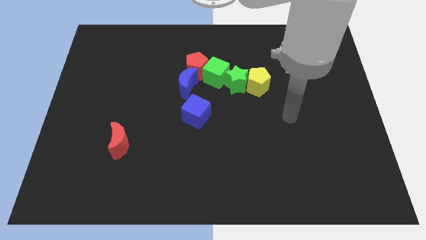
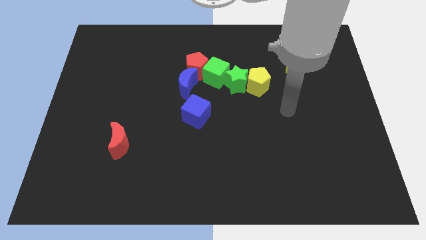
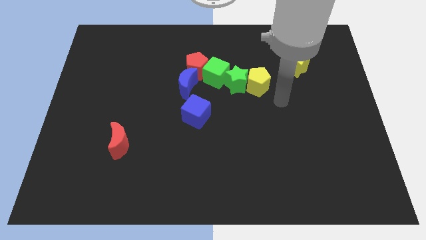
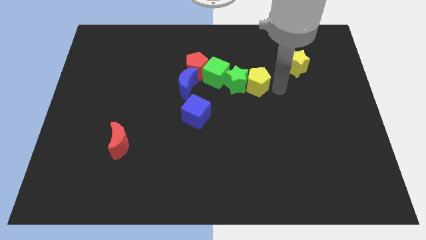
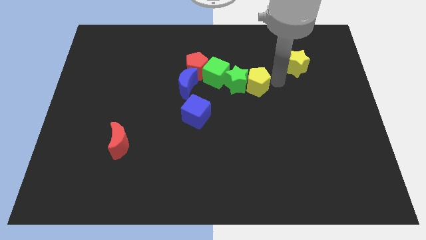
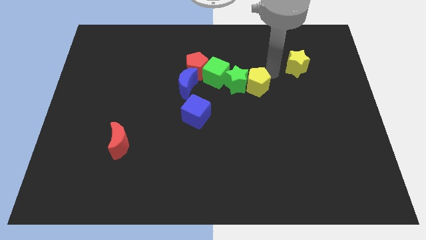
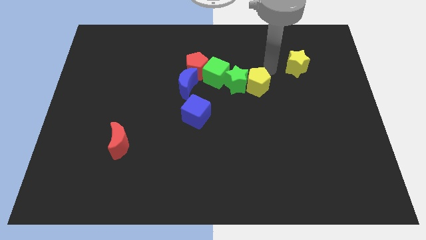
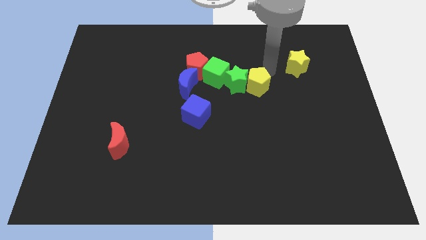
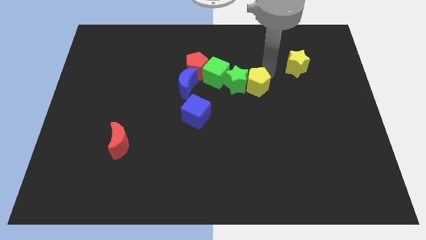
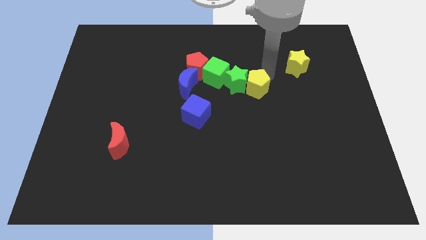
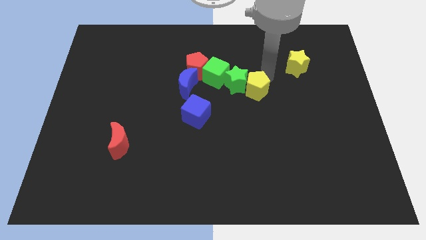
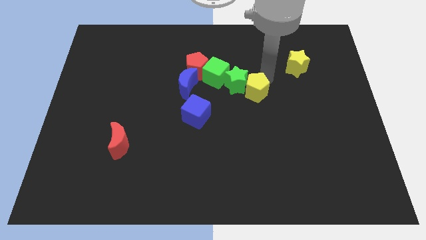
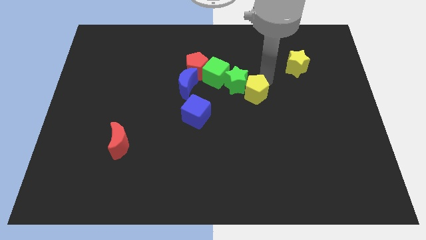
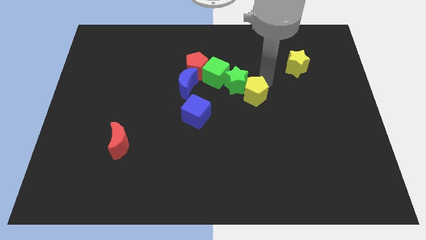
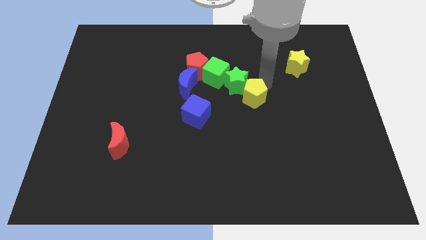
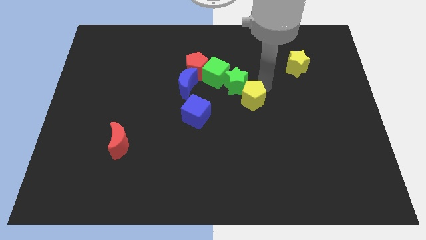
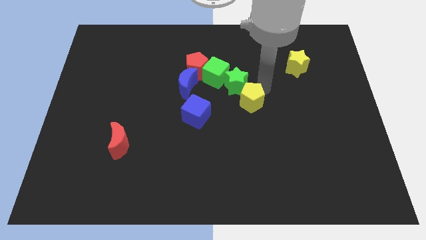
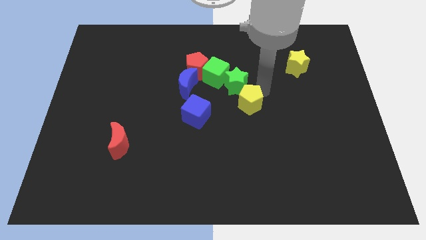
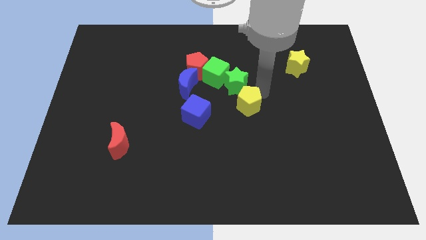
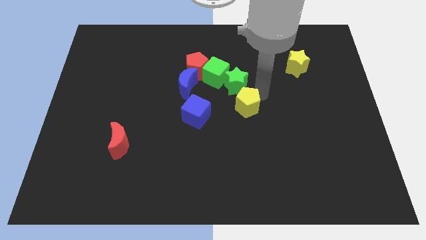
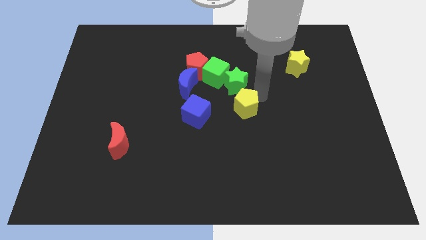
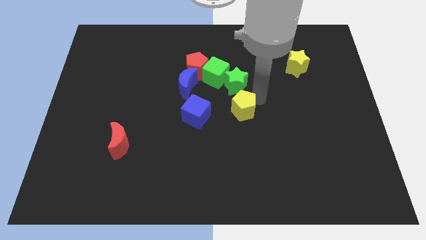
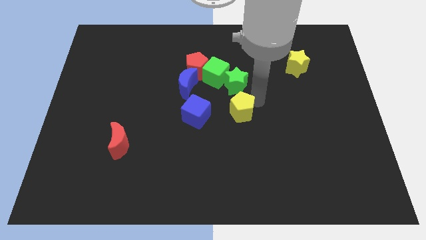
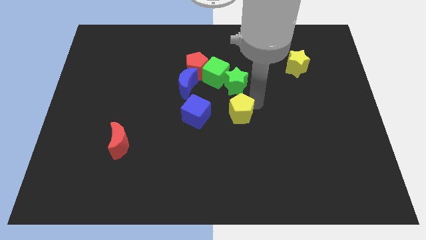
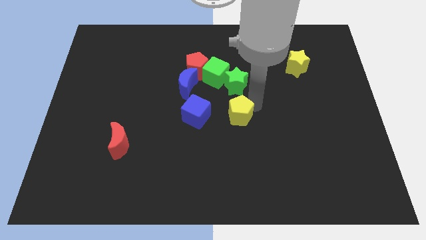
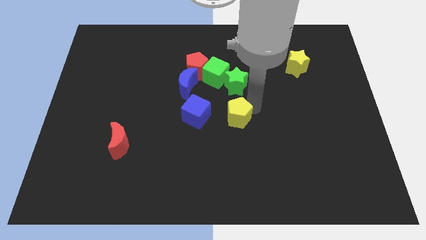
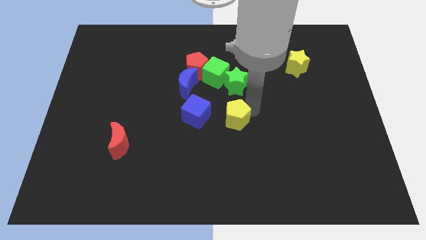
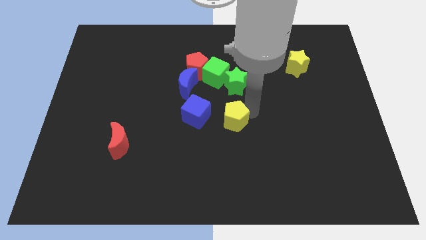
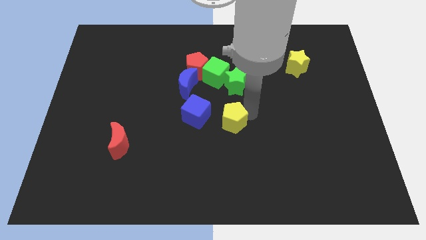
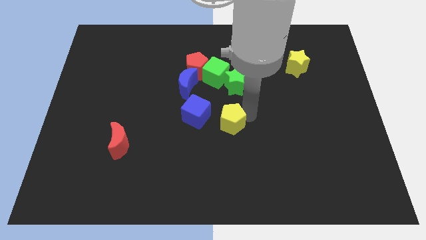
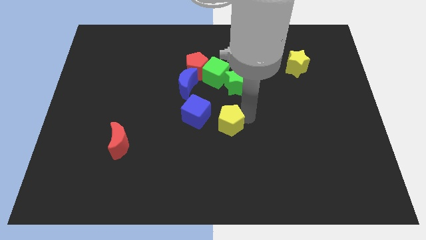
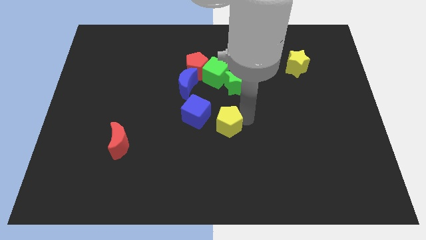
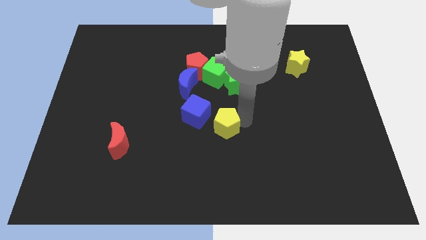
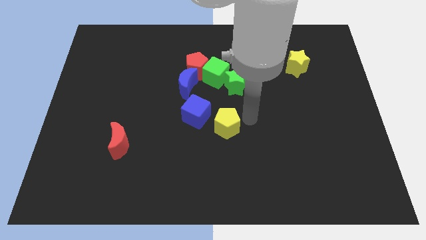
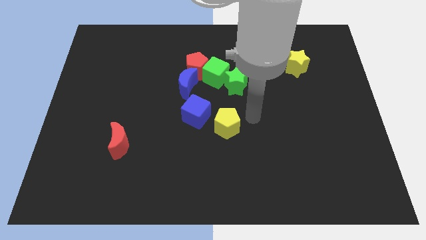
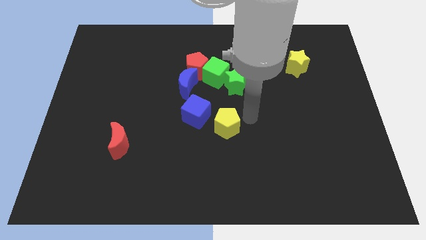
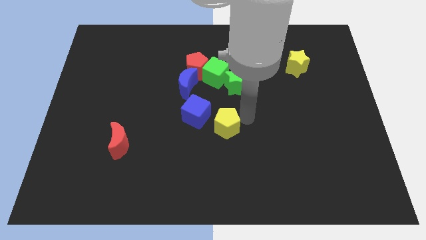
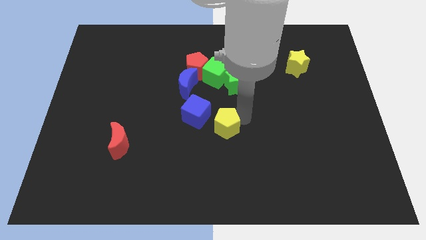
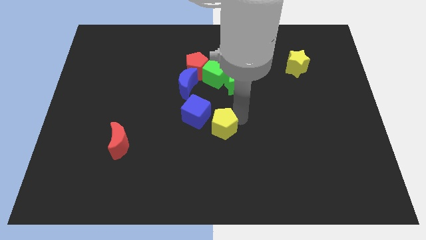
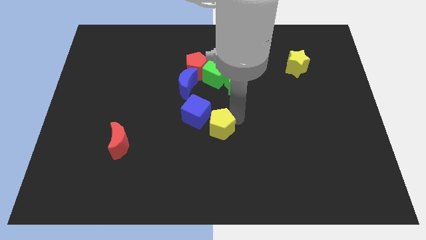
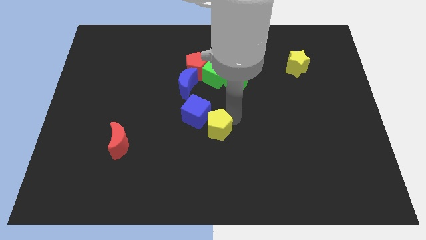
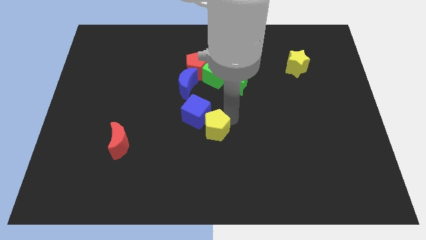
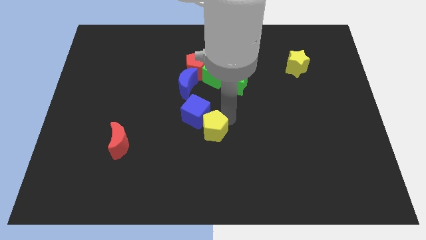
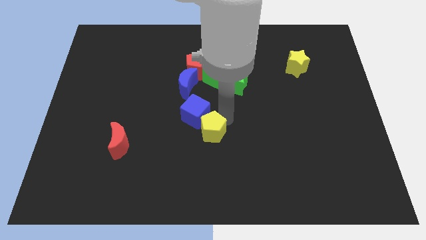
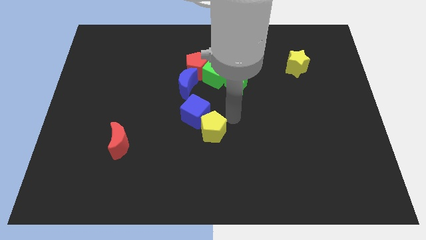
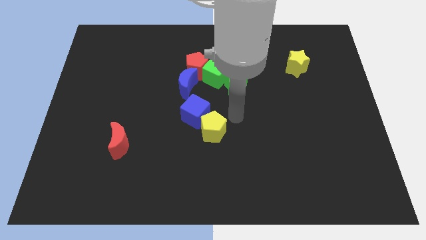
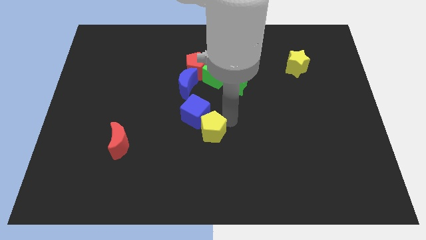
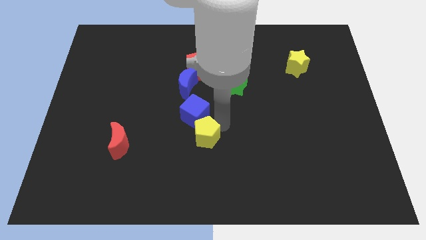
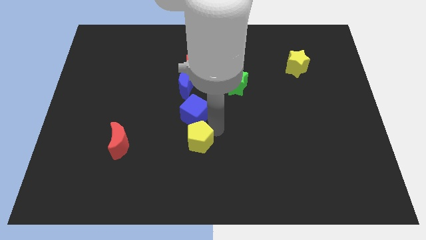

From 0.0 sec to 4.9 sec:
push the yellow pentagon diagonally down and to the left

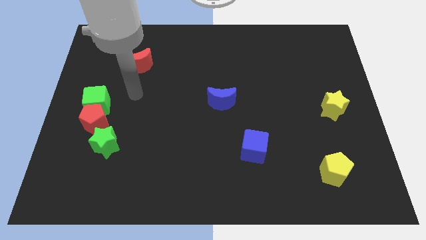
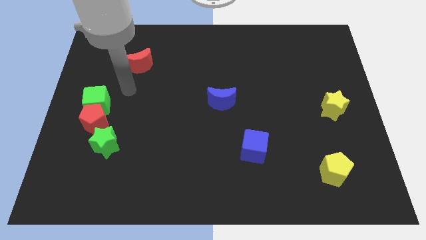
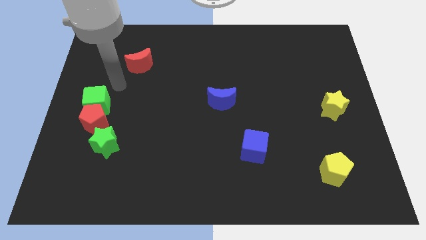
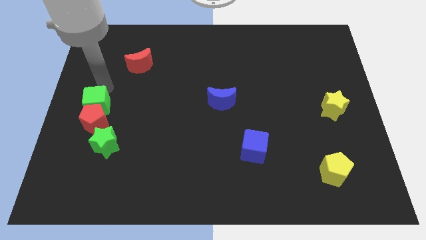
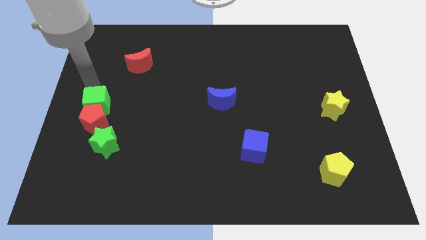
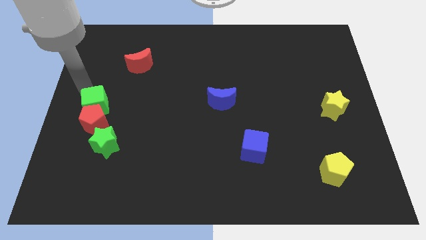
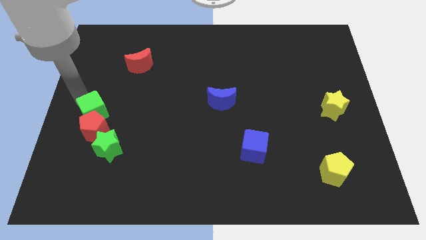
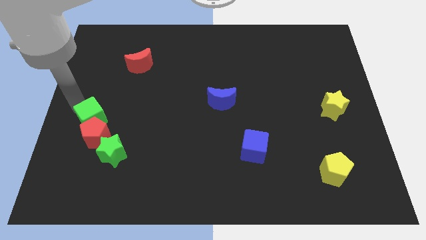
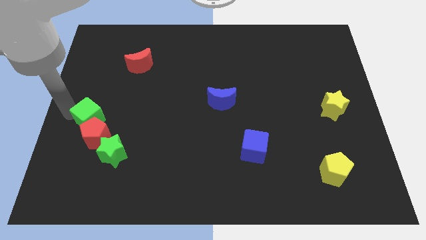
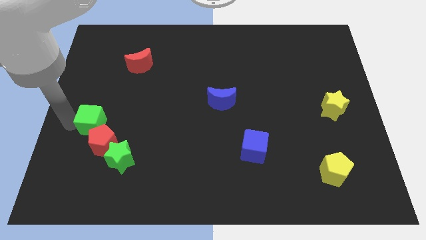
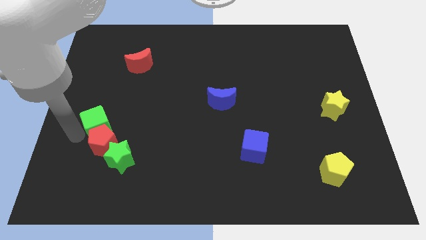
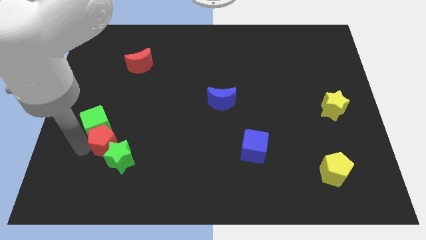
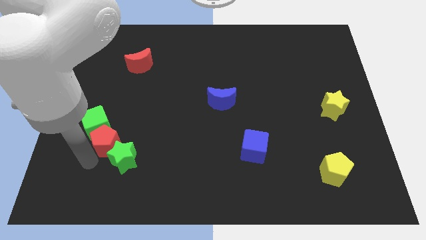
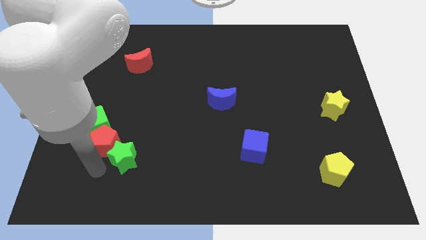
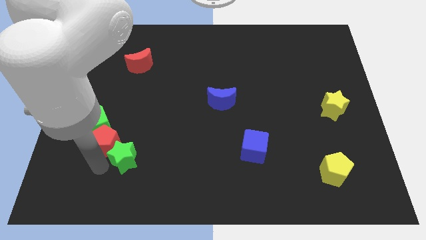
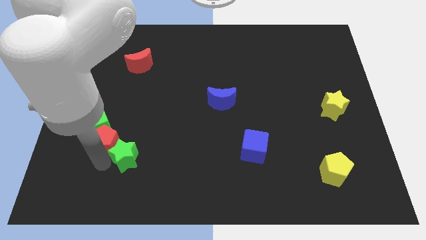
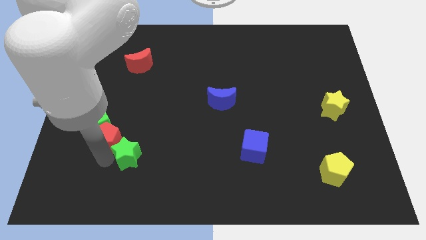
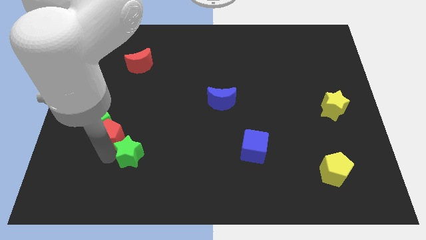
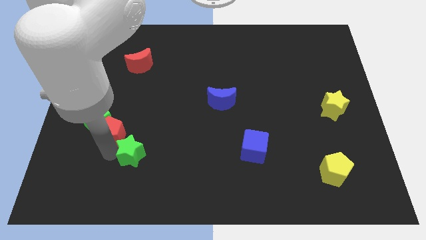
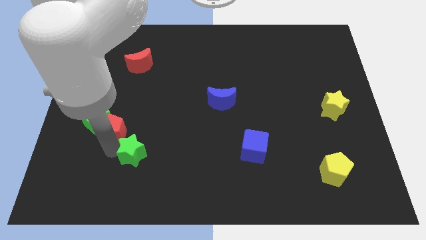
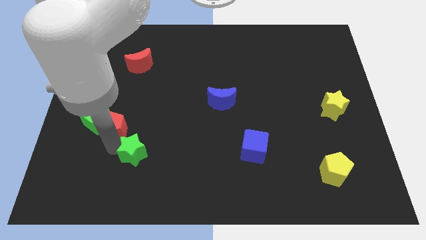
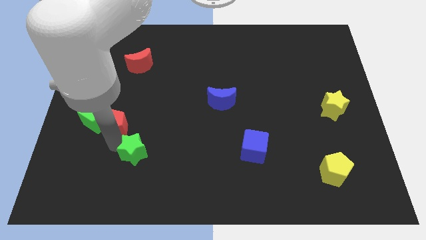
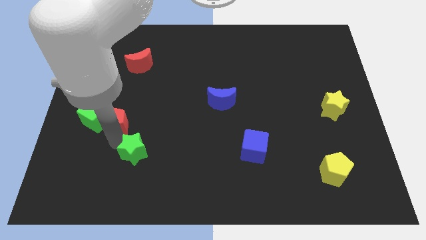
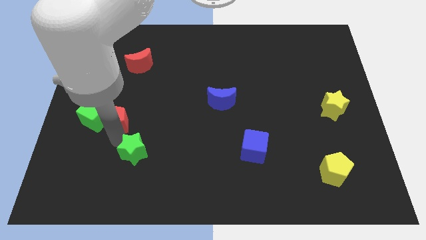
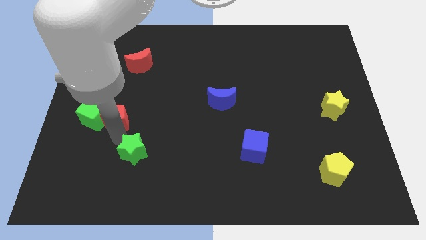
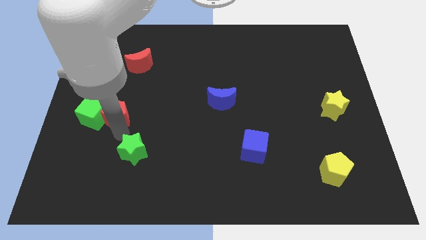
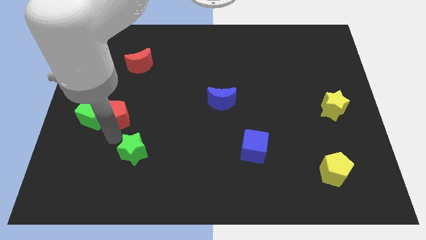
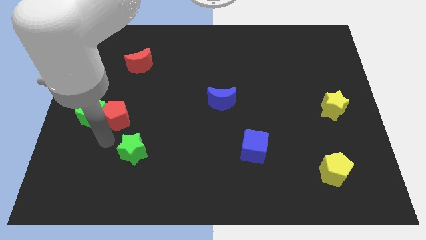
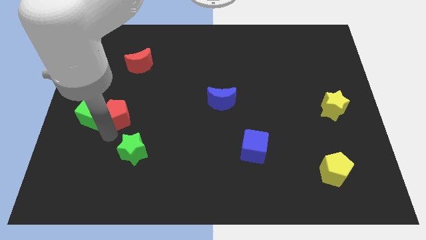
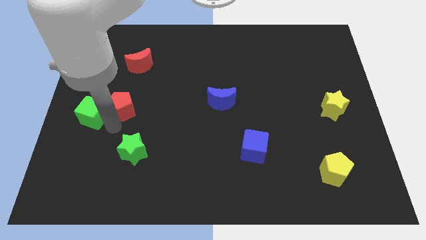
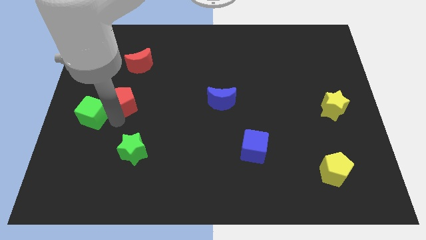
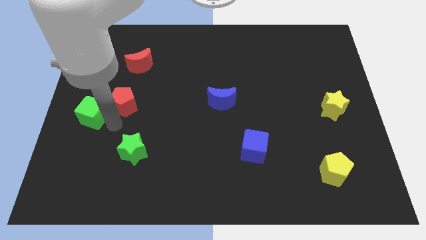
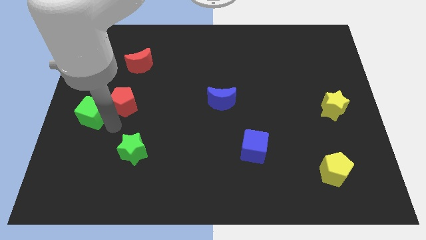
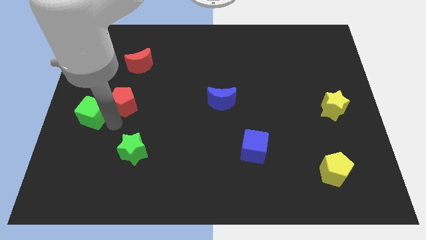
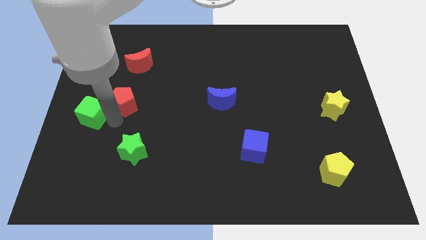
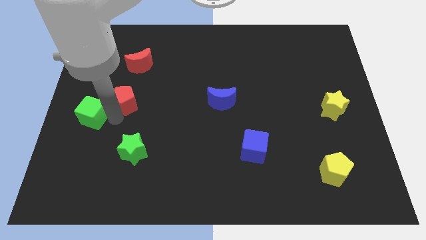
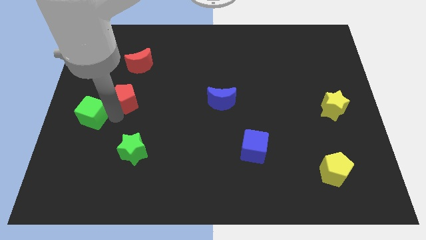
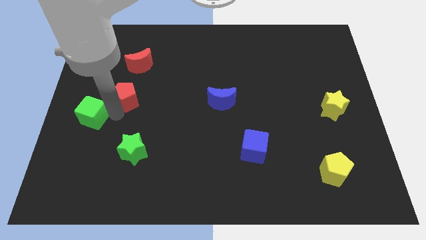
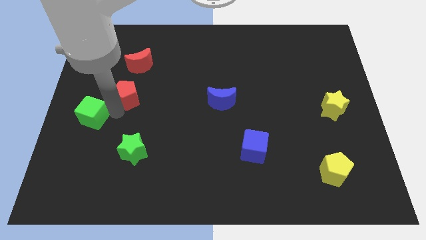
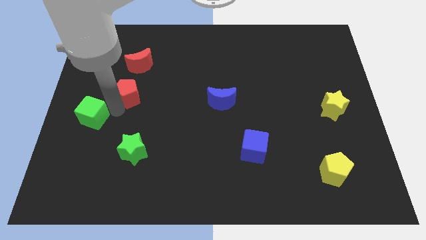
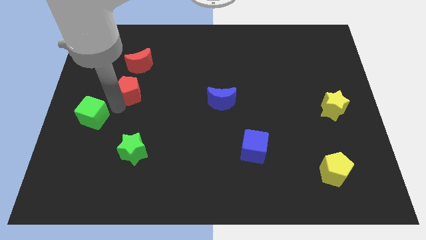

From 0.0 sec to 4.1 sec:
push the red pentagon upwards a little
